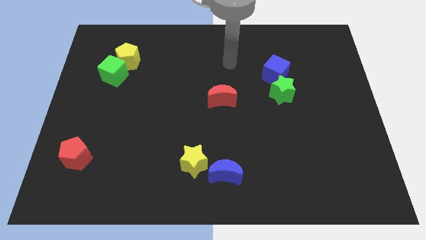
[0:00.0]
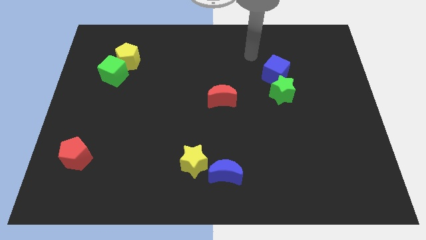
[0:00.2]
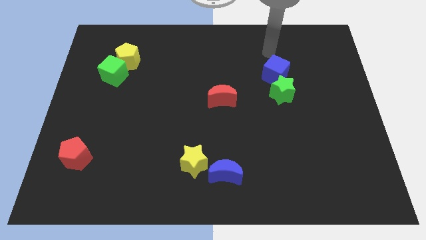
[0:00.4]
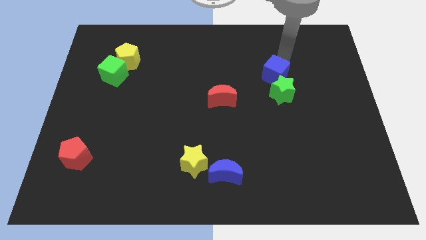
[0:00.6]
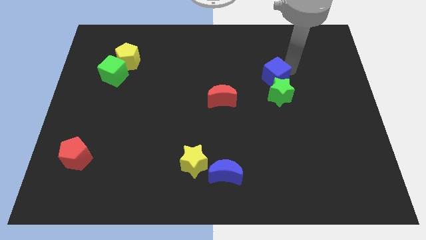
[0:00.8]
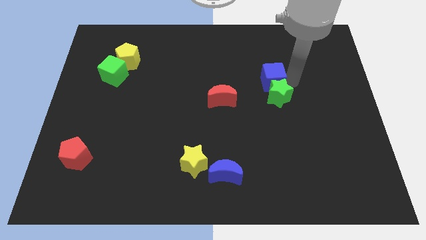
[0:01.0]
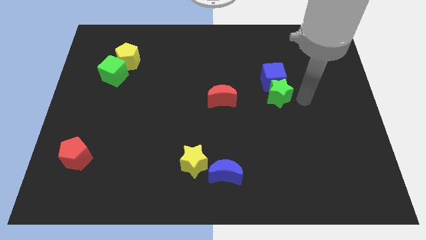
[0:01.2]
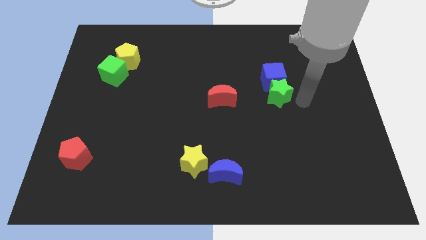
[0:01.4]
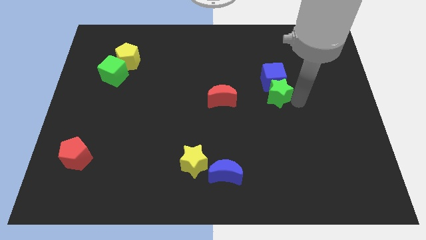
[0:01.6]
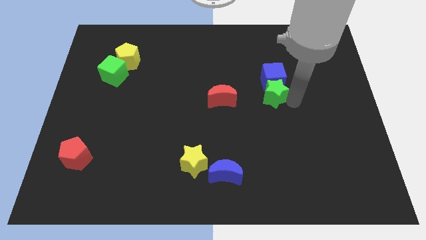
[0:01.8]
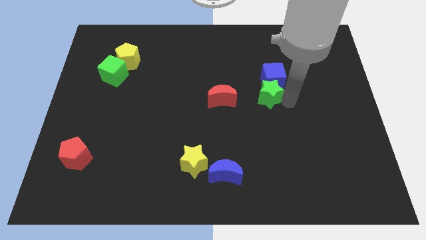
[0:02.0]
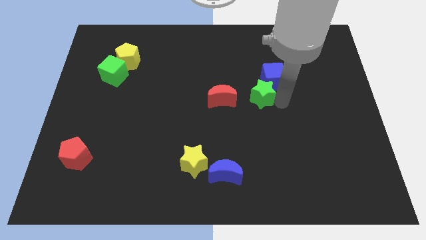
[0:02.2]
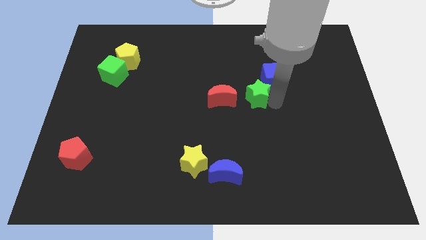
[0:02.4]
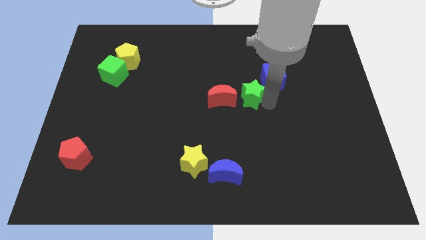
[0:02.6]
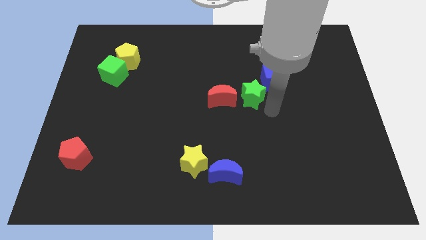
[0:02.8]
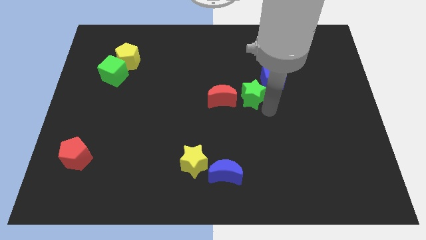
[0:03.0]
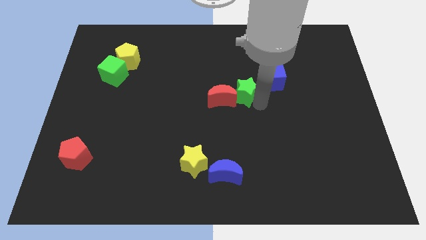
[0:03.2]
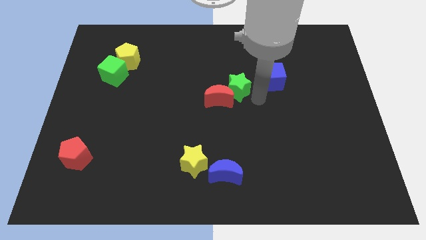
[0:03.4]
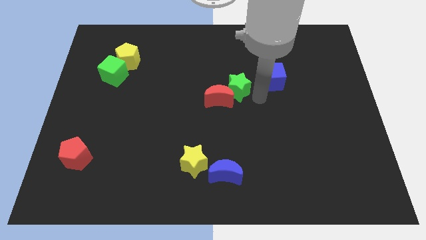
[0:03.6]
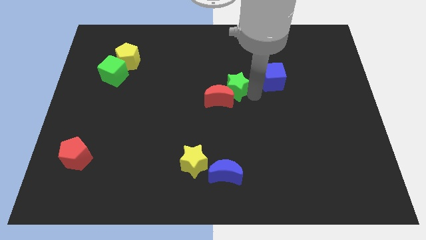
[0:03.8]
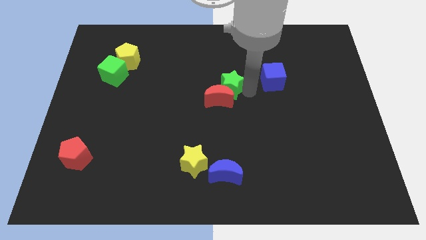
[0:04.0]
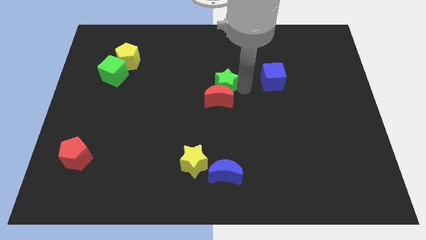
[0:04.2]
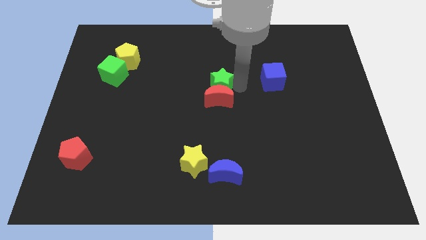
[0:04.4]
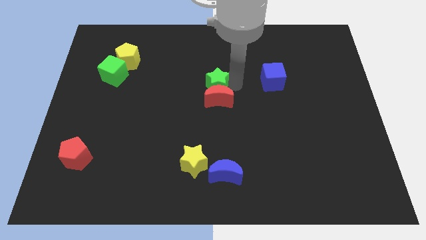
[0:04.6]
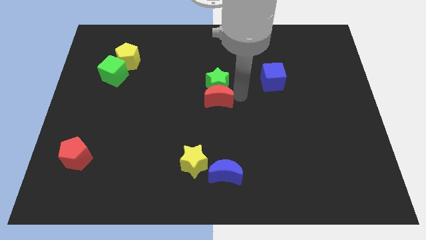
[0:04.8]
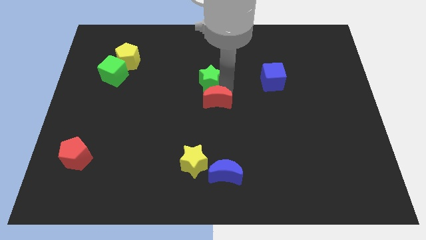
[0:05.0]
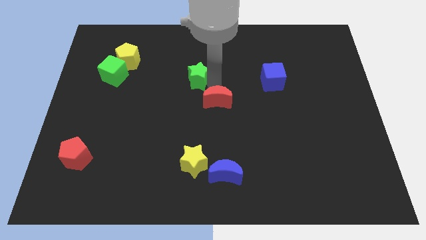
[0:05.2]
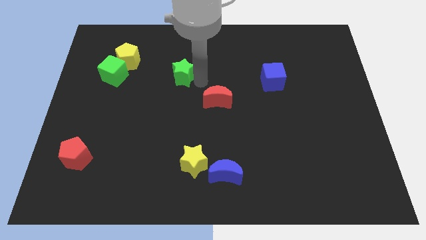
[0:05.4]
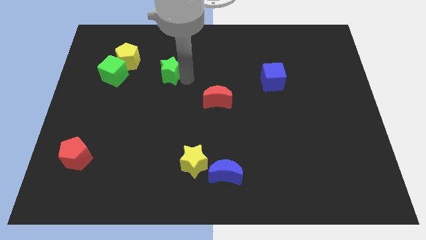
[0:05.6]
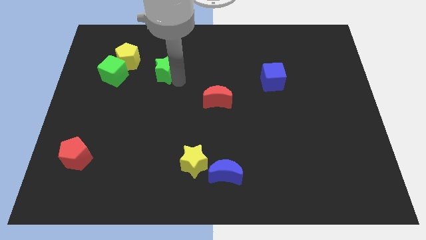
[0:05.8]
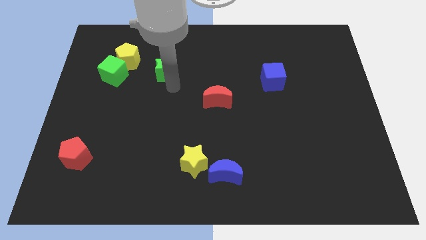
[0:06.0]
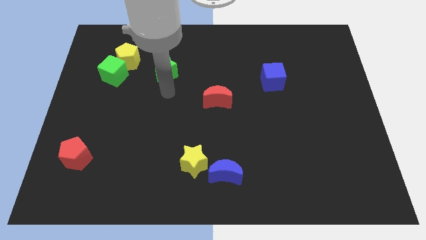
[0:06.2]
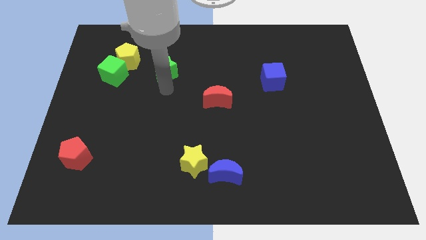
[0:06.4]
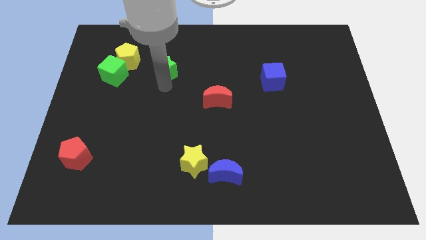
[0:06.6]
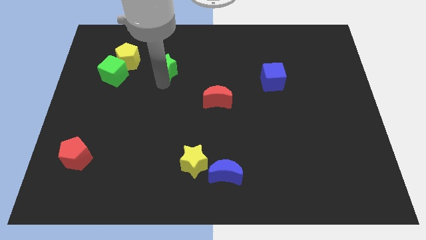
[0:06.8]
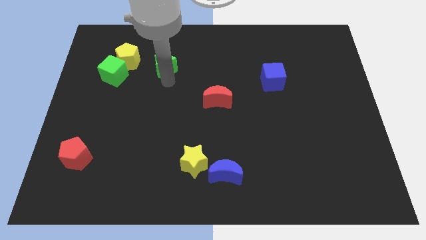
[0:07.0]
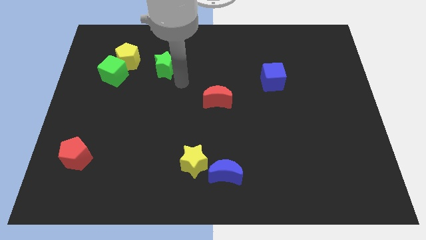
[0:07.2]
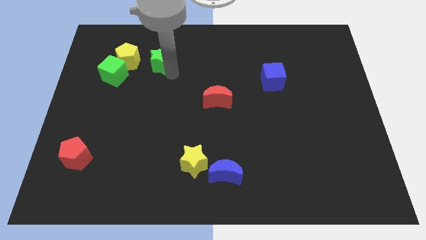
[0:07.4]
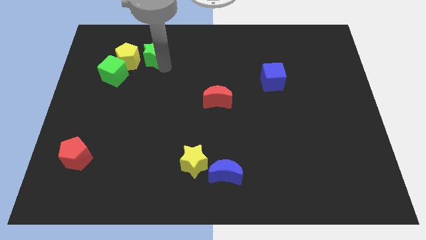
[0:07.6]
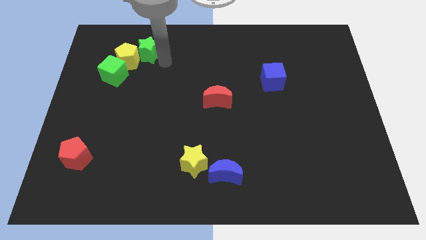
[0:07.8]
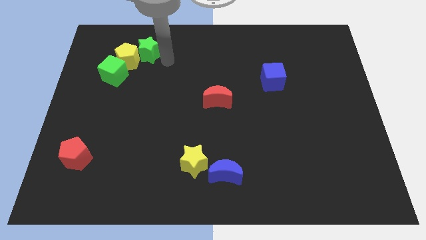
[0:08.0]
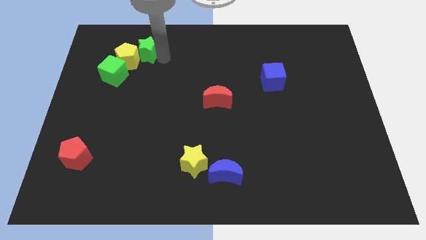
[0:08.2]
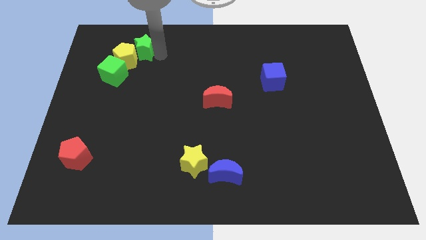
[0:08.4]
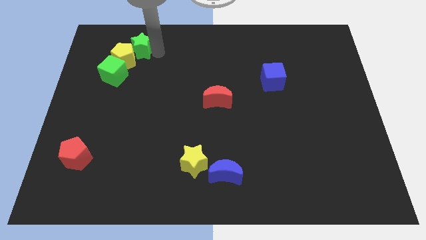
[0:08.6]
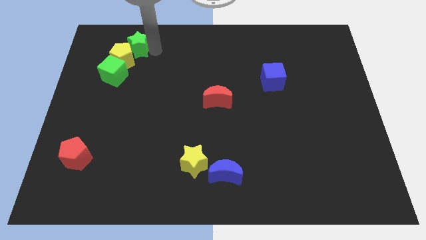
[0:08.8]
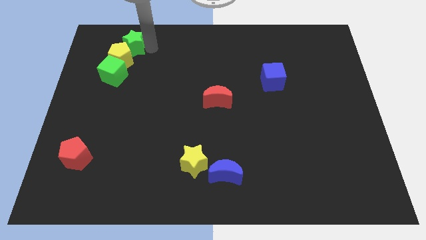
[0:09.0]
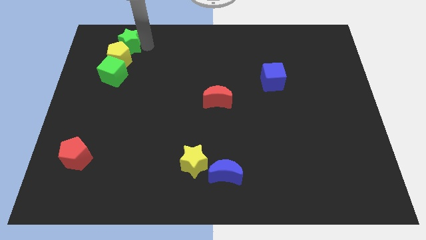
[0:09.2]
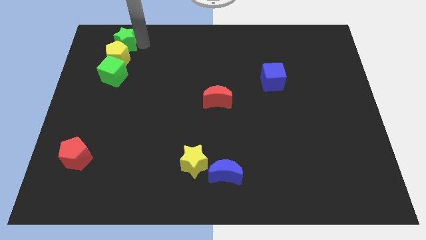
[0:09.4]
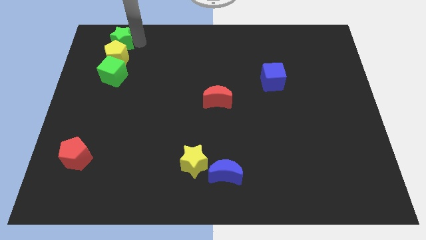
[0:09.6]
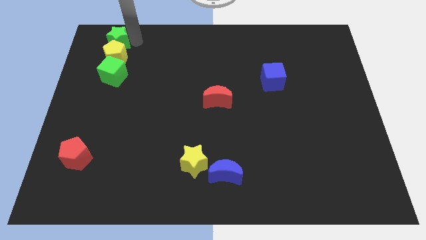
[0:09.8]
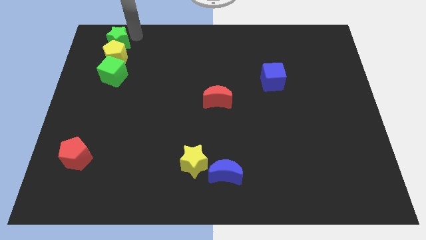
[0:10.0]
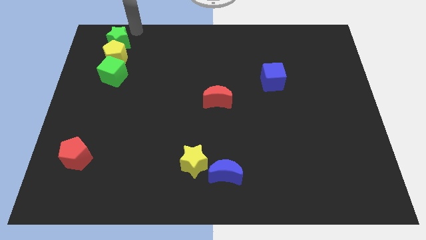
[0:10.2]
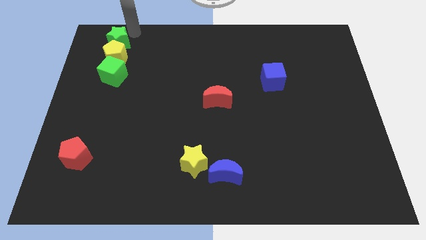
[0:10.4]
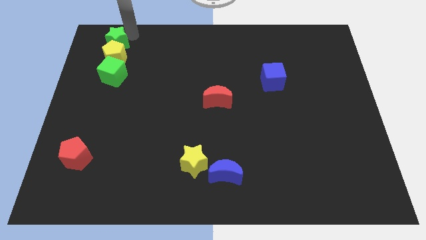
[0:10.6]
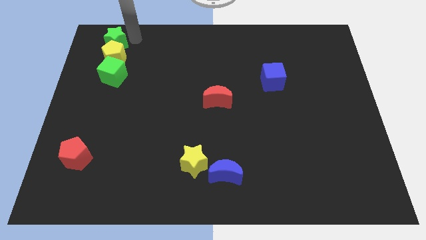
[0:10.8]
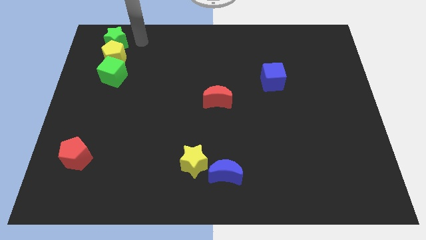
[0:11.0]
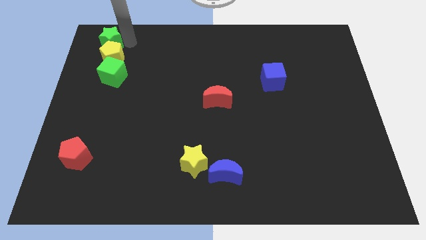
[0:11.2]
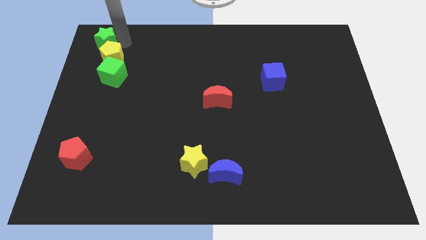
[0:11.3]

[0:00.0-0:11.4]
push the green star to the top left corner
